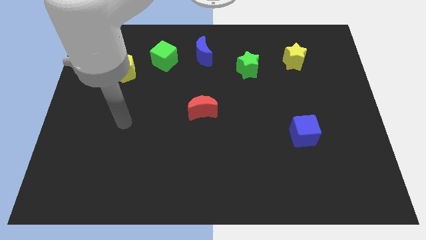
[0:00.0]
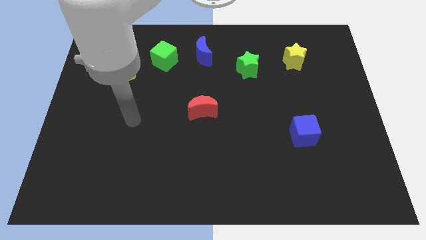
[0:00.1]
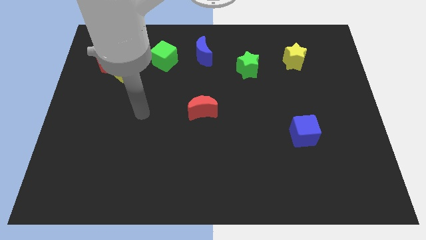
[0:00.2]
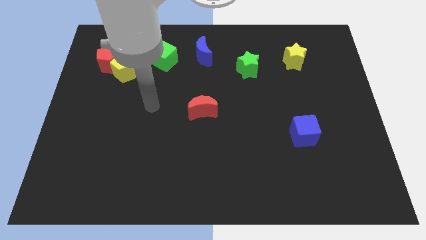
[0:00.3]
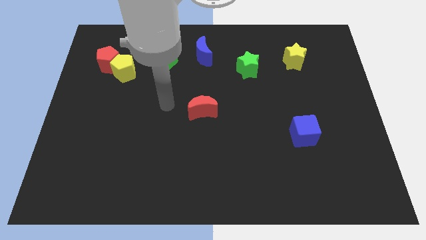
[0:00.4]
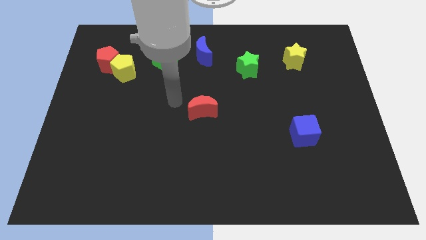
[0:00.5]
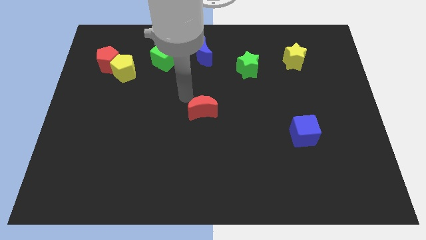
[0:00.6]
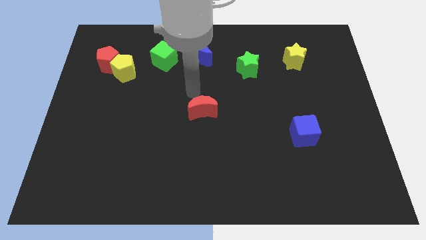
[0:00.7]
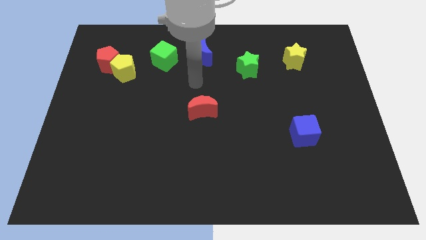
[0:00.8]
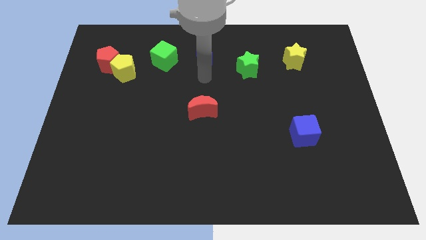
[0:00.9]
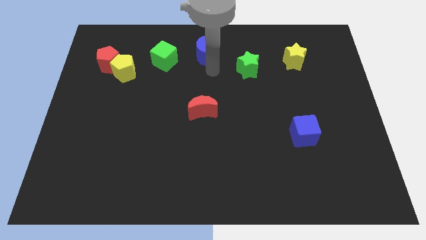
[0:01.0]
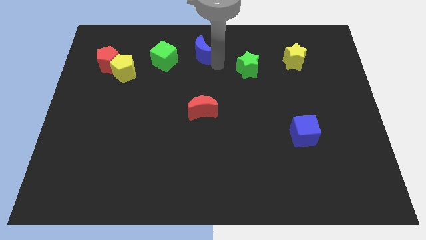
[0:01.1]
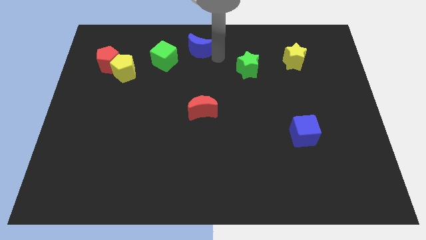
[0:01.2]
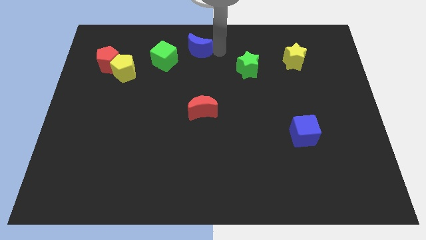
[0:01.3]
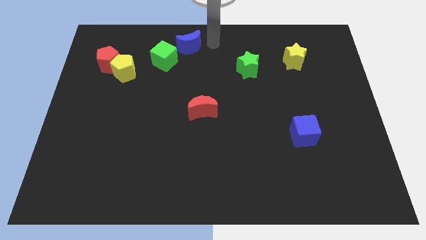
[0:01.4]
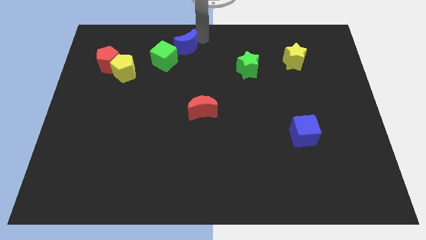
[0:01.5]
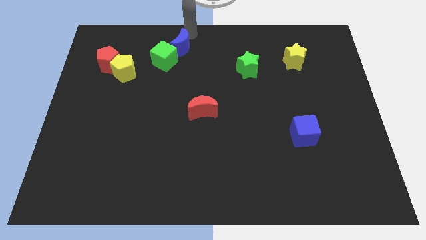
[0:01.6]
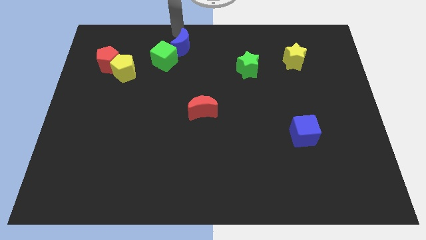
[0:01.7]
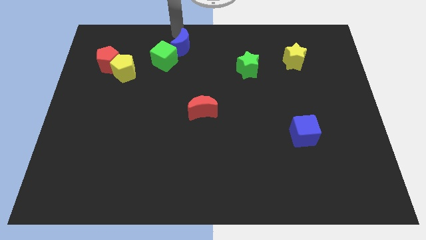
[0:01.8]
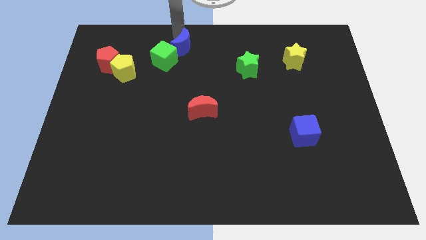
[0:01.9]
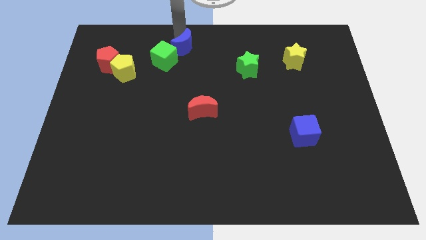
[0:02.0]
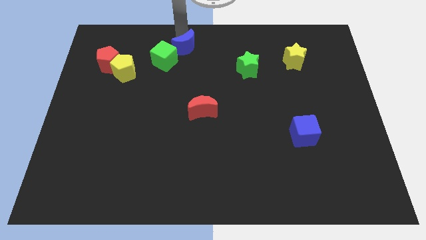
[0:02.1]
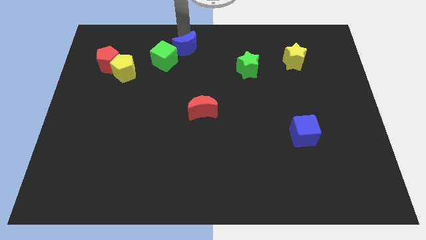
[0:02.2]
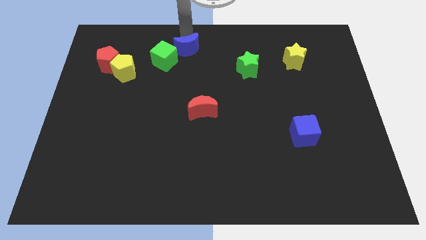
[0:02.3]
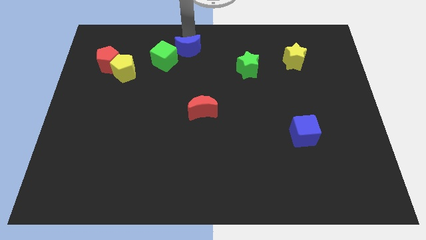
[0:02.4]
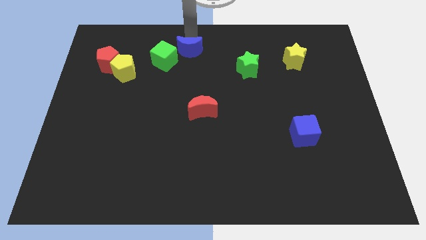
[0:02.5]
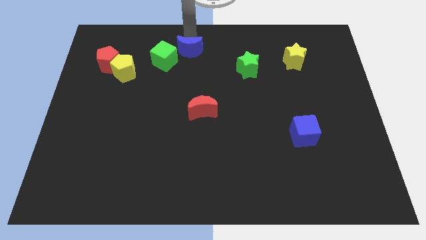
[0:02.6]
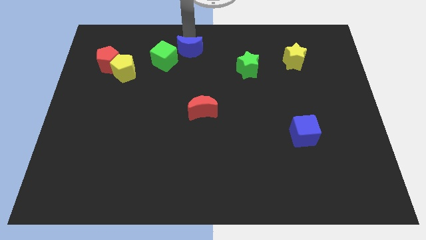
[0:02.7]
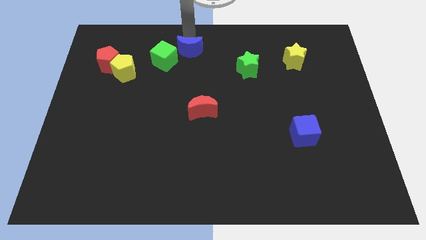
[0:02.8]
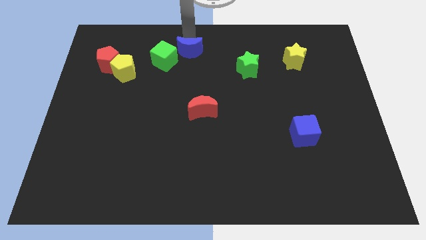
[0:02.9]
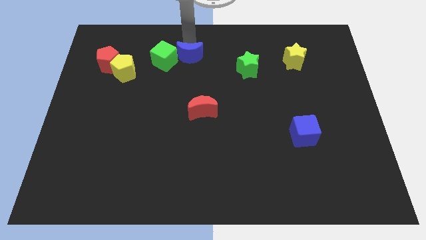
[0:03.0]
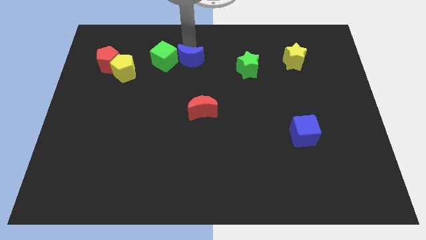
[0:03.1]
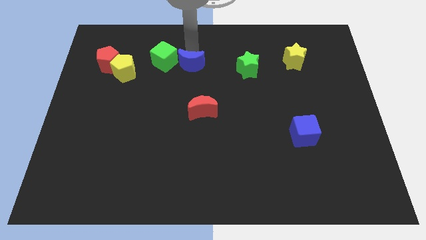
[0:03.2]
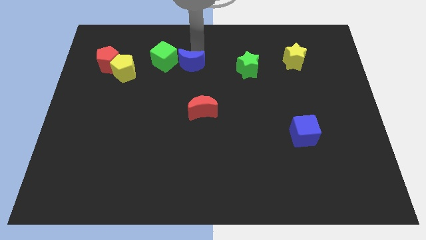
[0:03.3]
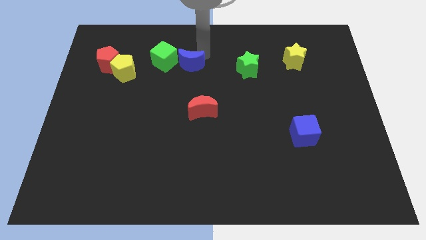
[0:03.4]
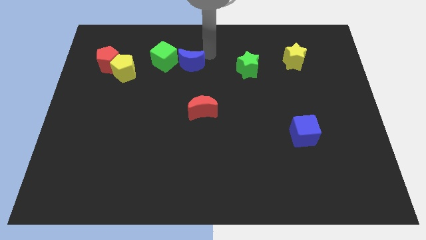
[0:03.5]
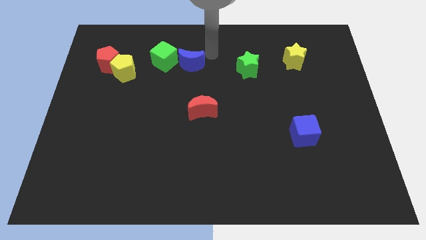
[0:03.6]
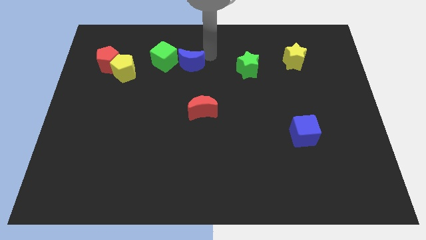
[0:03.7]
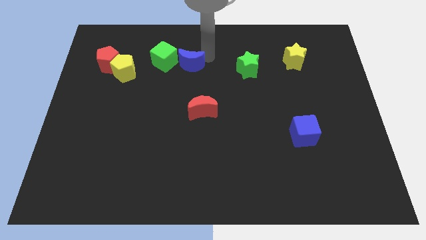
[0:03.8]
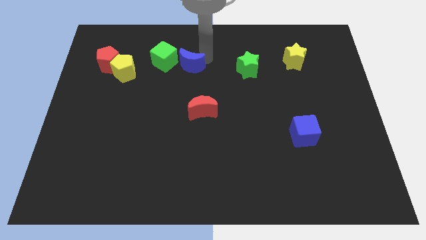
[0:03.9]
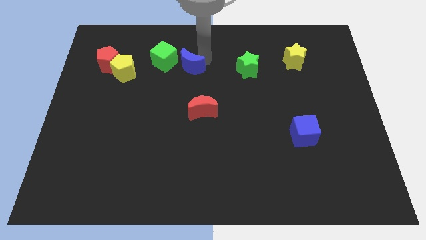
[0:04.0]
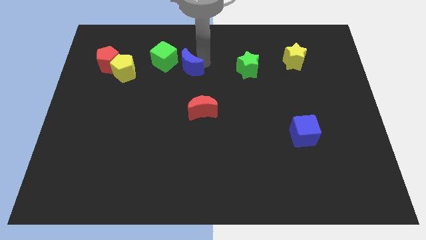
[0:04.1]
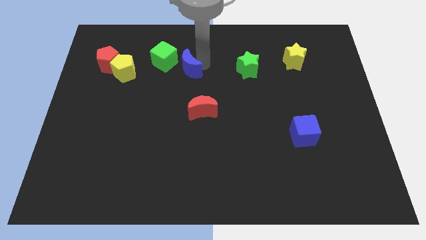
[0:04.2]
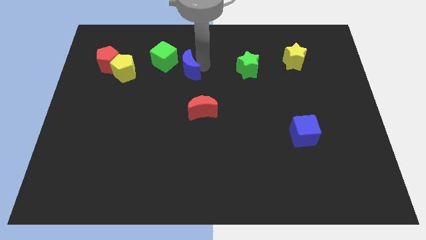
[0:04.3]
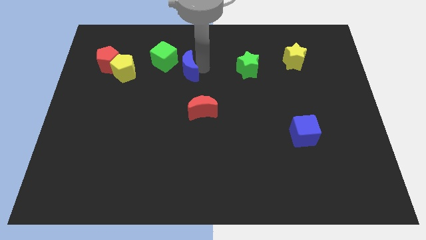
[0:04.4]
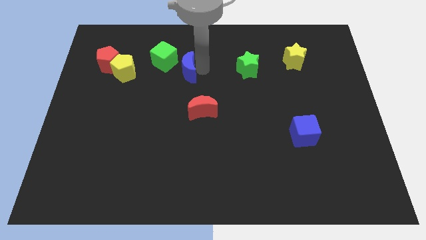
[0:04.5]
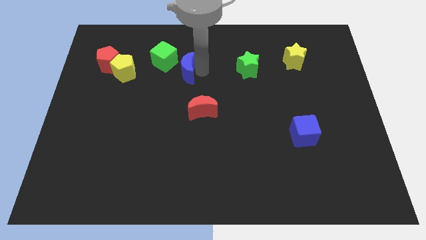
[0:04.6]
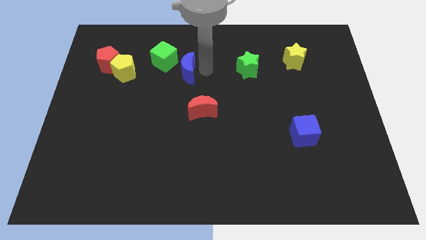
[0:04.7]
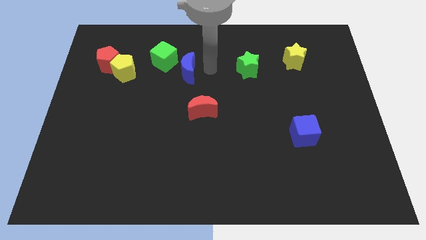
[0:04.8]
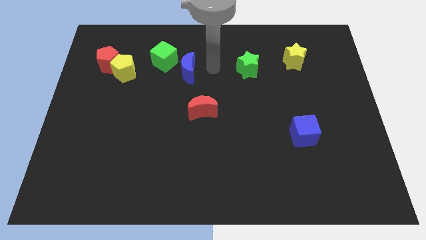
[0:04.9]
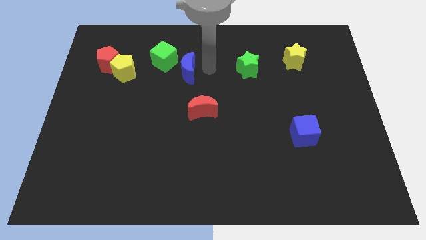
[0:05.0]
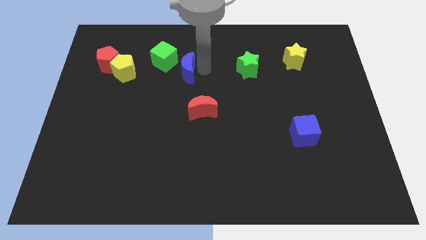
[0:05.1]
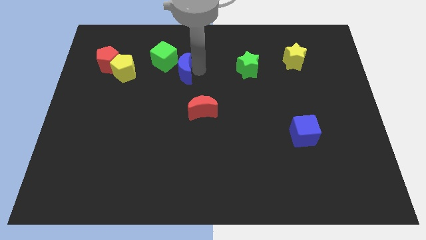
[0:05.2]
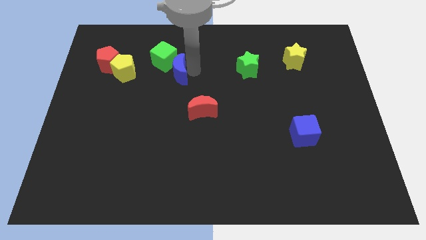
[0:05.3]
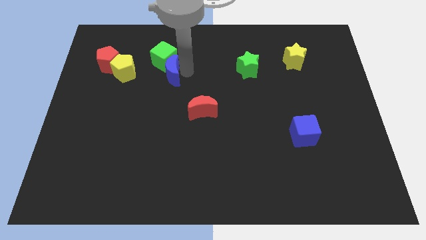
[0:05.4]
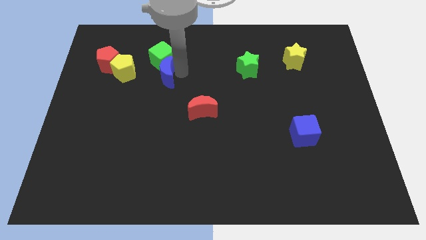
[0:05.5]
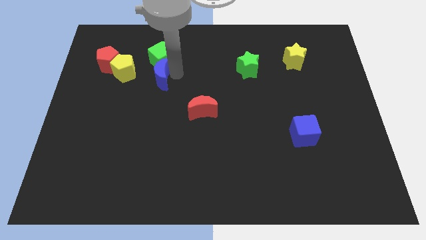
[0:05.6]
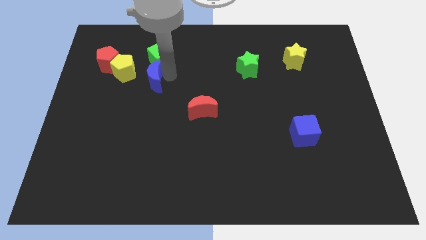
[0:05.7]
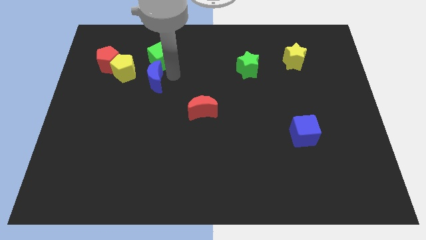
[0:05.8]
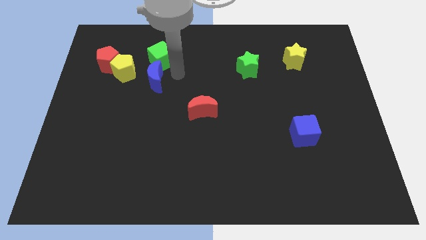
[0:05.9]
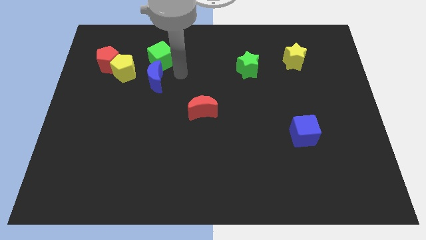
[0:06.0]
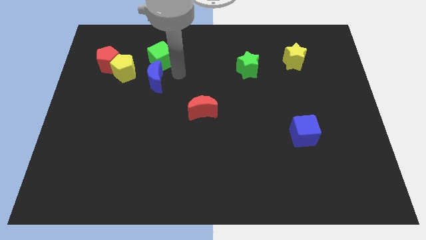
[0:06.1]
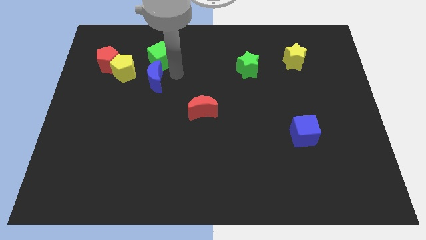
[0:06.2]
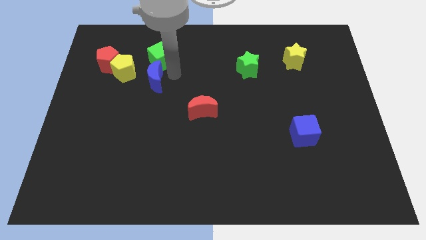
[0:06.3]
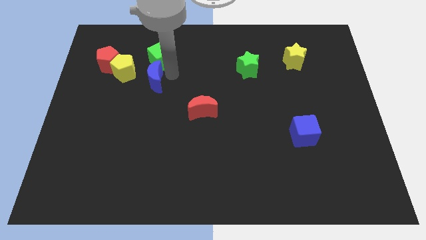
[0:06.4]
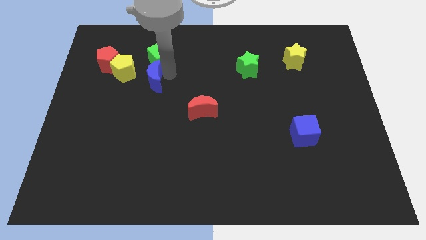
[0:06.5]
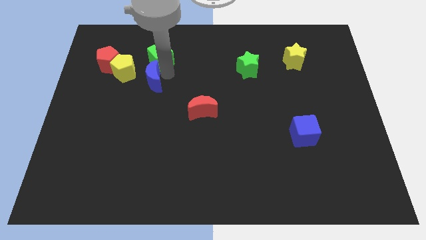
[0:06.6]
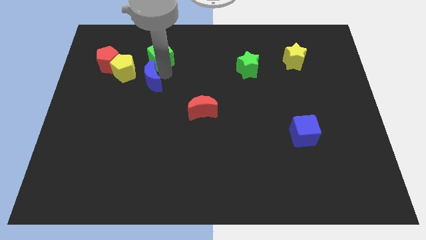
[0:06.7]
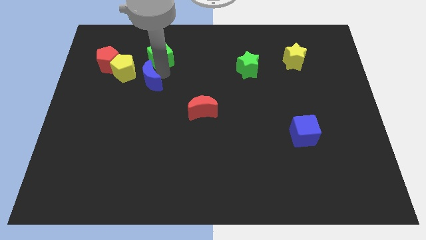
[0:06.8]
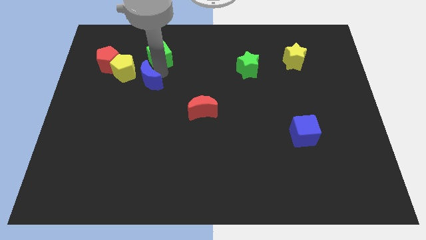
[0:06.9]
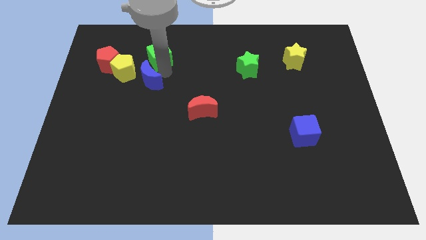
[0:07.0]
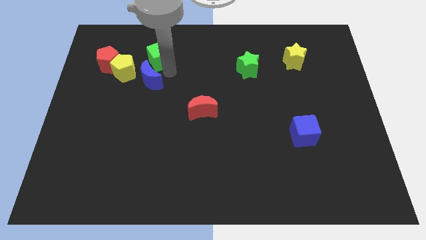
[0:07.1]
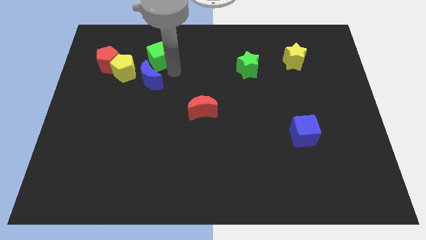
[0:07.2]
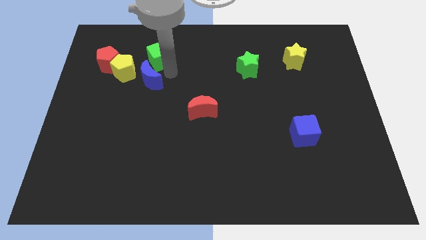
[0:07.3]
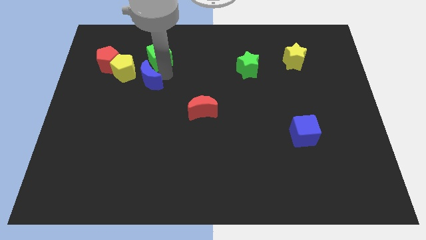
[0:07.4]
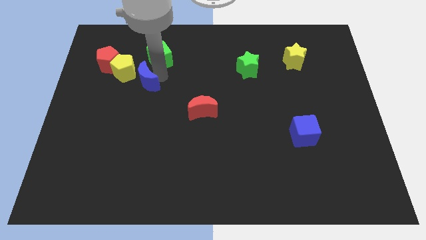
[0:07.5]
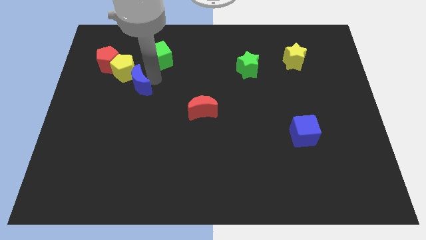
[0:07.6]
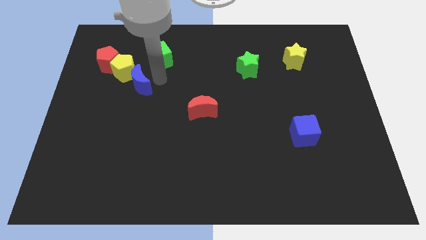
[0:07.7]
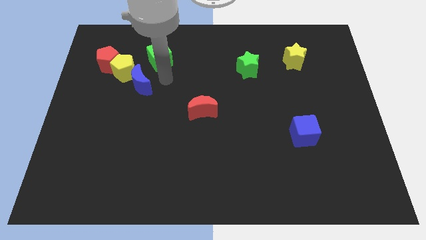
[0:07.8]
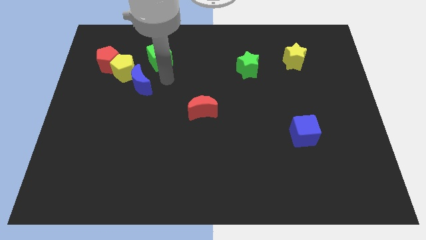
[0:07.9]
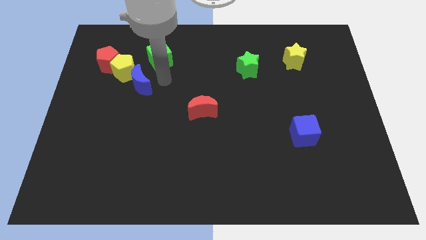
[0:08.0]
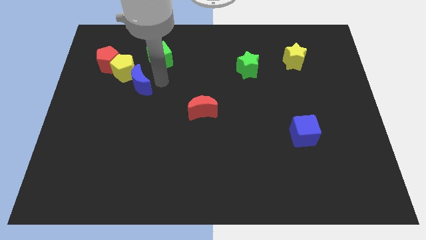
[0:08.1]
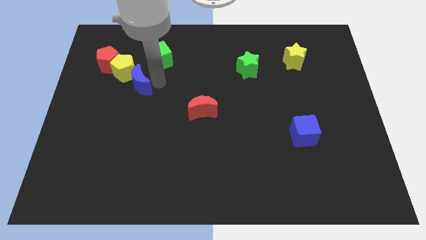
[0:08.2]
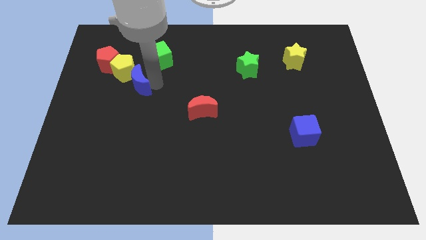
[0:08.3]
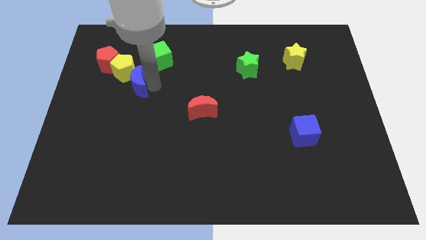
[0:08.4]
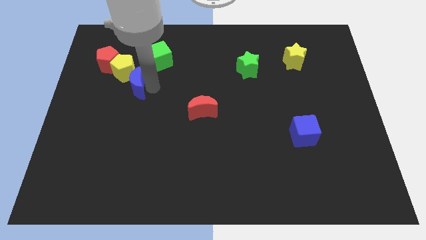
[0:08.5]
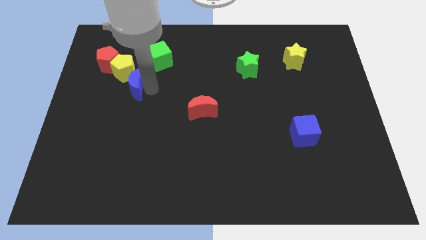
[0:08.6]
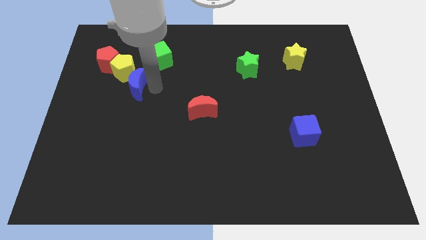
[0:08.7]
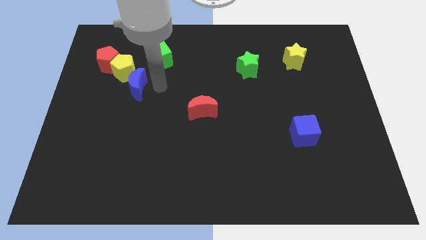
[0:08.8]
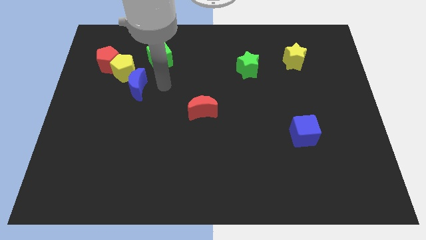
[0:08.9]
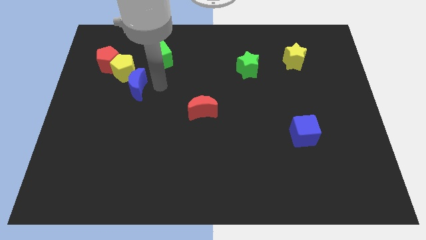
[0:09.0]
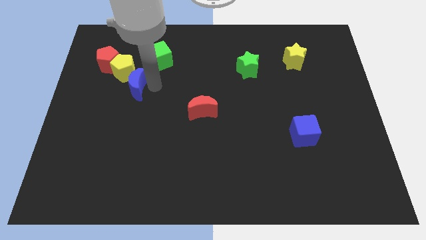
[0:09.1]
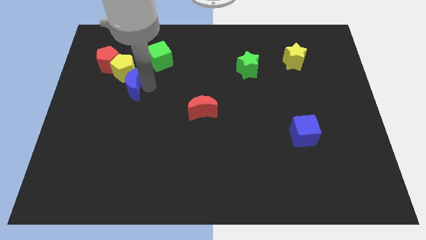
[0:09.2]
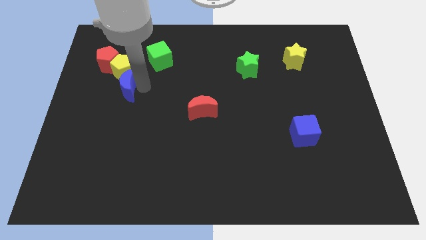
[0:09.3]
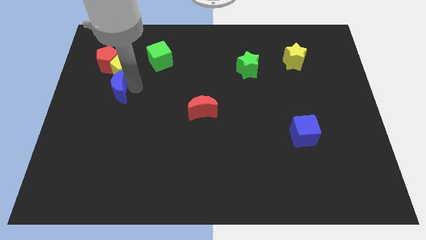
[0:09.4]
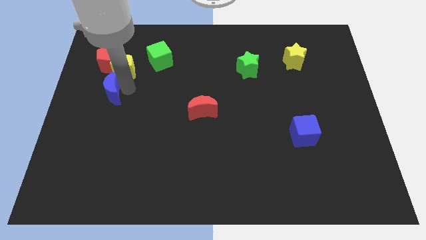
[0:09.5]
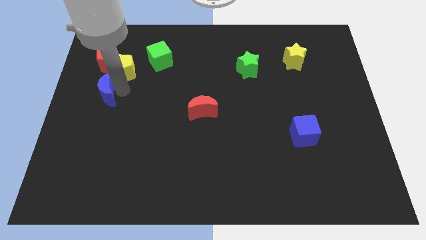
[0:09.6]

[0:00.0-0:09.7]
move the blue moon to the left side of the board
